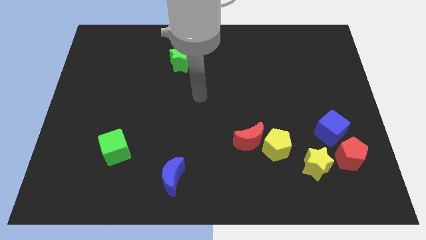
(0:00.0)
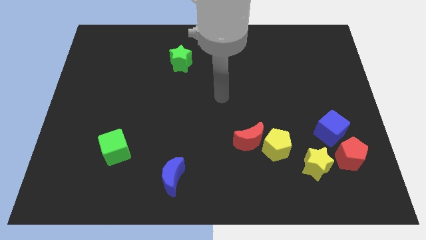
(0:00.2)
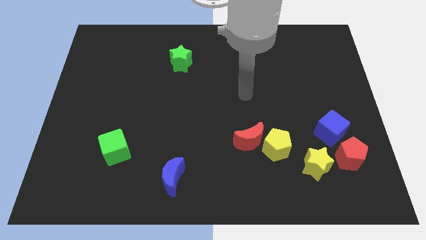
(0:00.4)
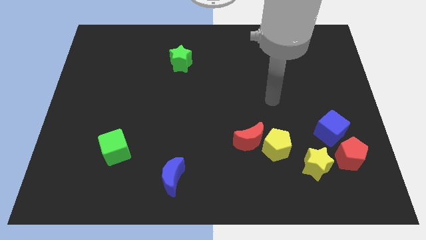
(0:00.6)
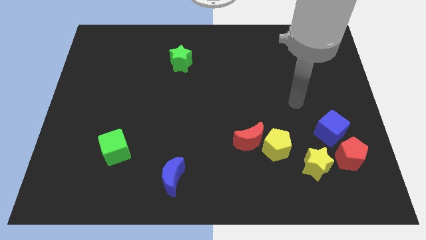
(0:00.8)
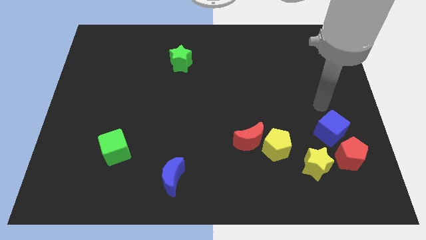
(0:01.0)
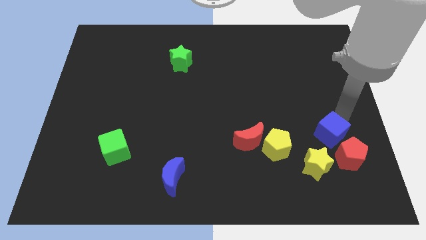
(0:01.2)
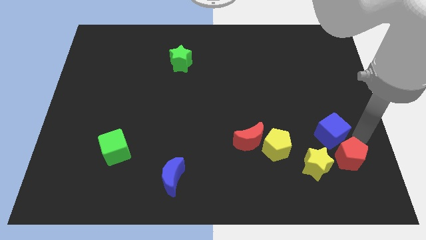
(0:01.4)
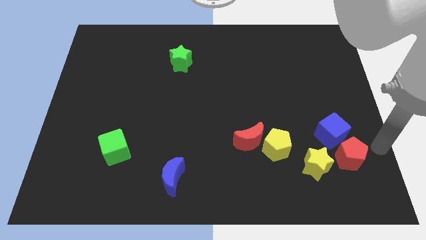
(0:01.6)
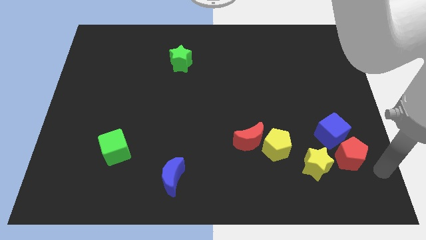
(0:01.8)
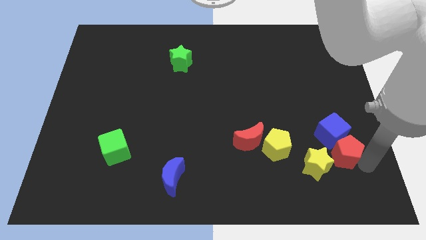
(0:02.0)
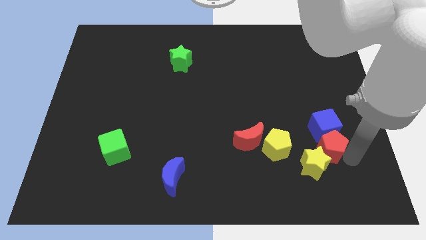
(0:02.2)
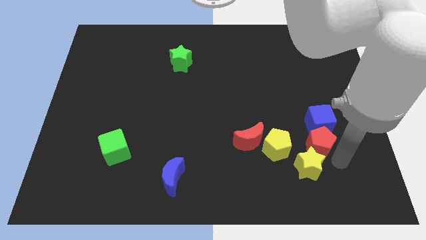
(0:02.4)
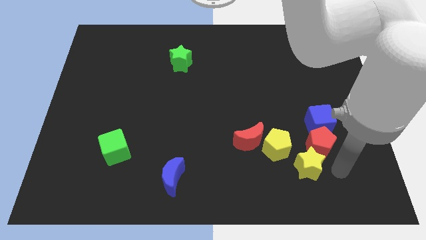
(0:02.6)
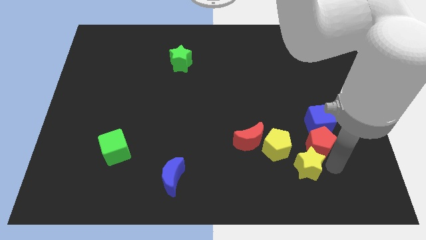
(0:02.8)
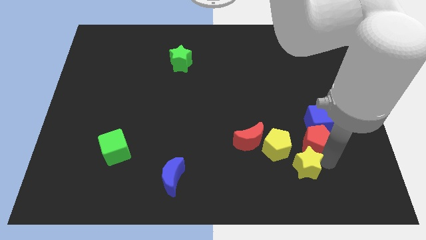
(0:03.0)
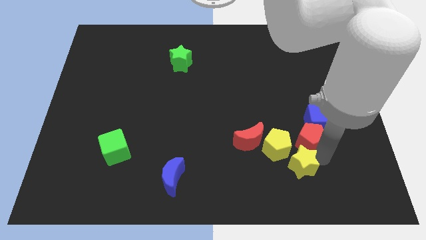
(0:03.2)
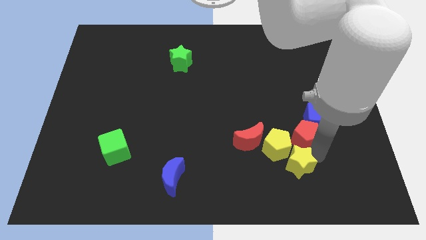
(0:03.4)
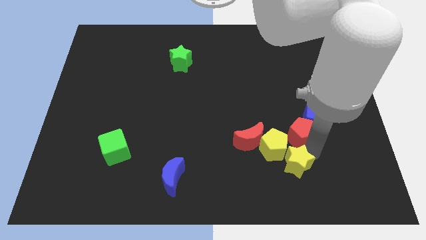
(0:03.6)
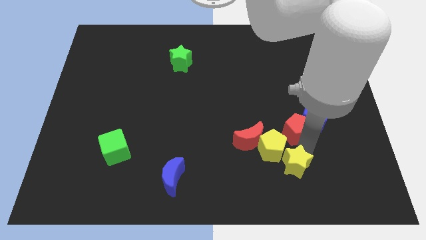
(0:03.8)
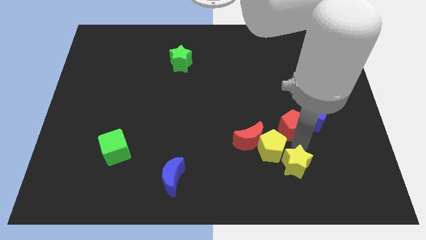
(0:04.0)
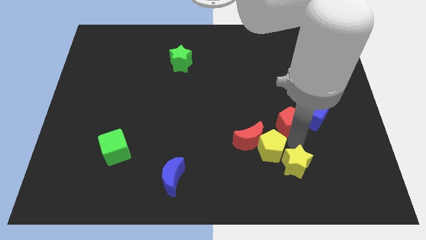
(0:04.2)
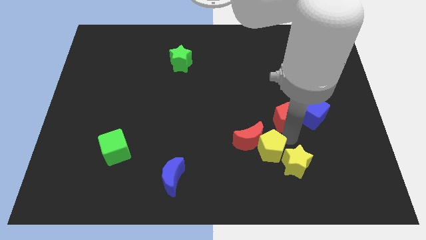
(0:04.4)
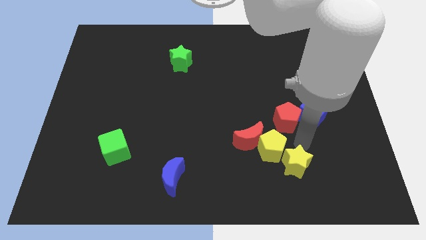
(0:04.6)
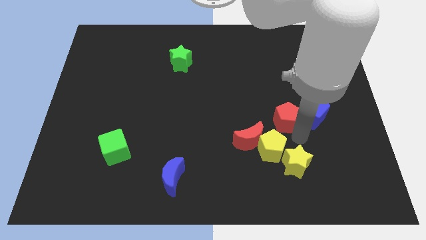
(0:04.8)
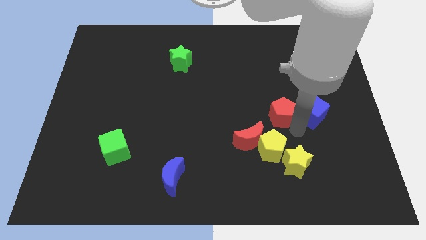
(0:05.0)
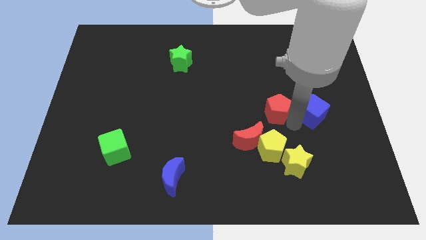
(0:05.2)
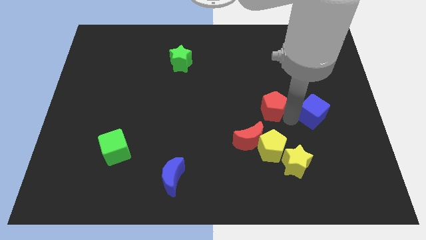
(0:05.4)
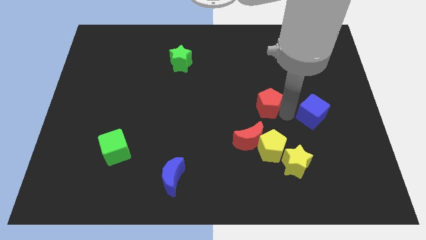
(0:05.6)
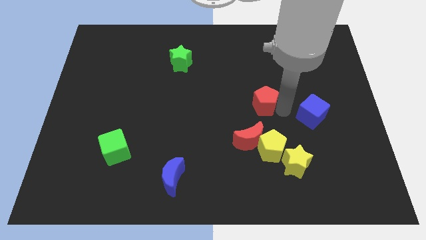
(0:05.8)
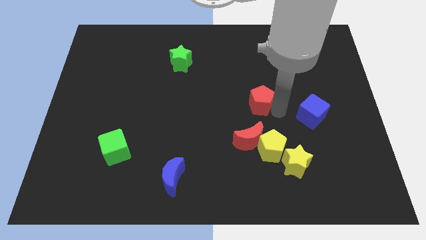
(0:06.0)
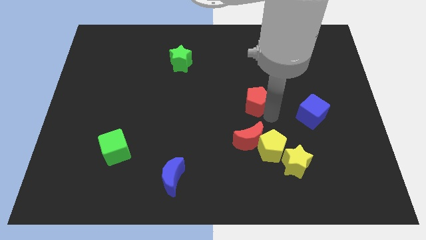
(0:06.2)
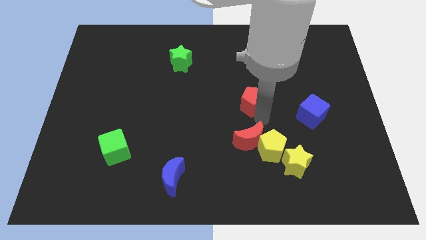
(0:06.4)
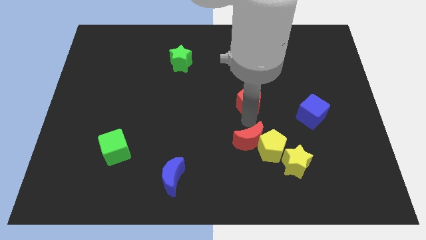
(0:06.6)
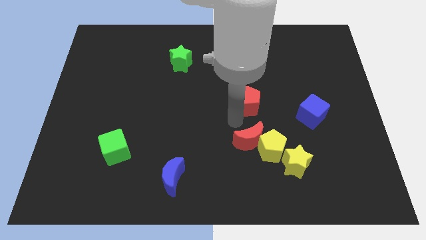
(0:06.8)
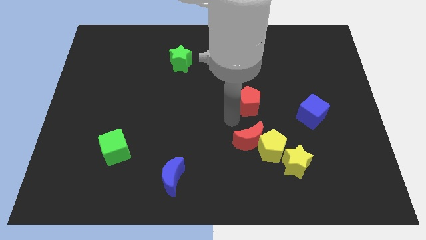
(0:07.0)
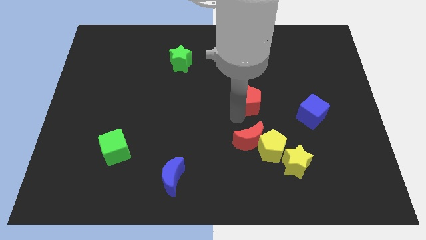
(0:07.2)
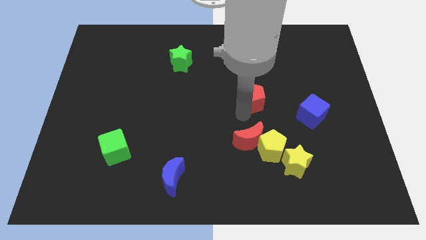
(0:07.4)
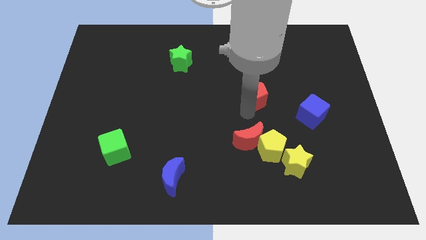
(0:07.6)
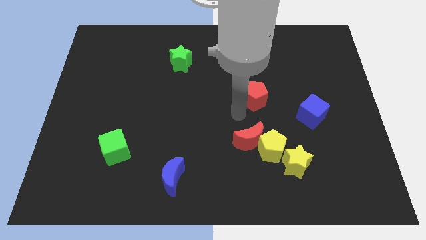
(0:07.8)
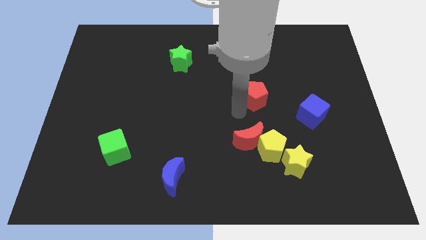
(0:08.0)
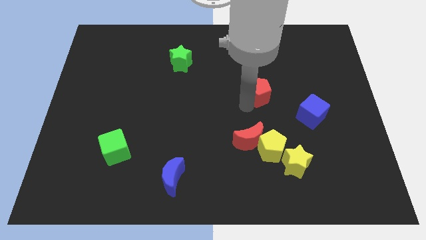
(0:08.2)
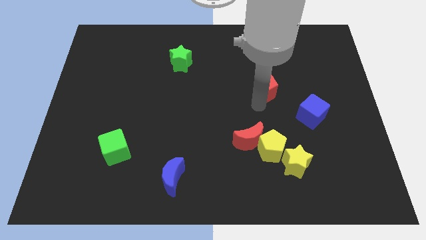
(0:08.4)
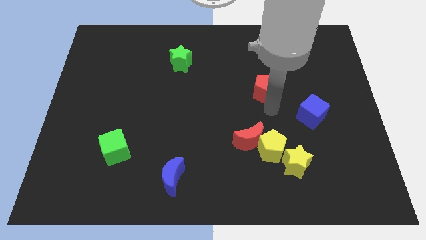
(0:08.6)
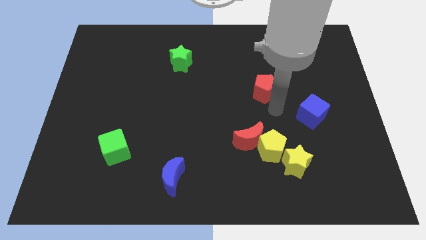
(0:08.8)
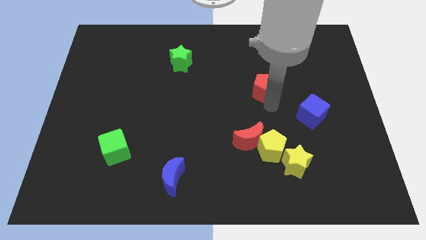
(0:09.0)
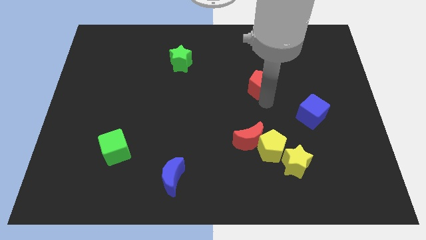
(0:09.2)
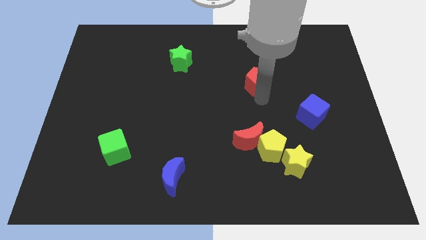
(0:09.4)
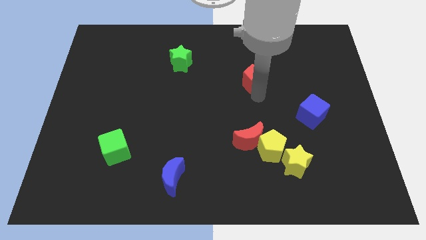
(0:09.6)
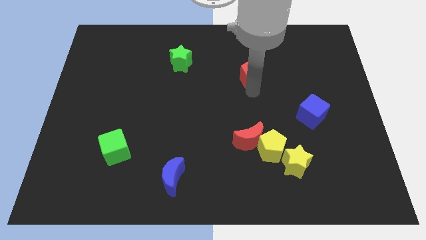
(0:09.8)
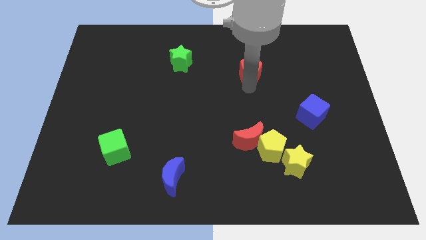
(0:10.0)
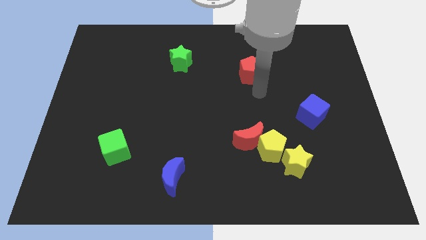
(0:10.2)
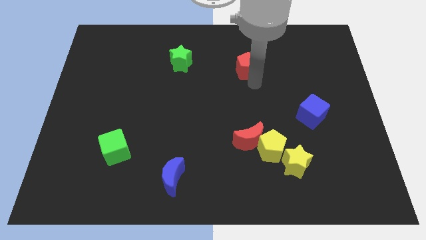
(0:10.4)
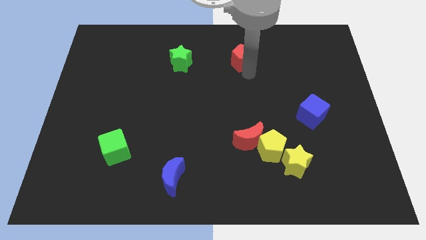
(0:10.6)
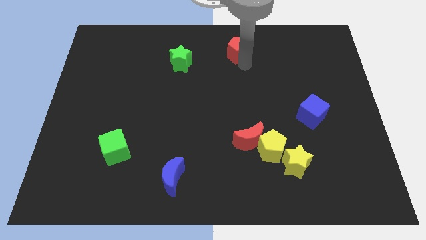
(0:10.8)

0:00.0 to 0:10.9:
push the red pentagon to the top side

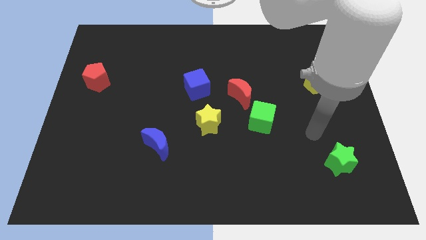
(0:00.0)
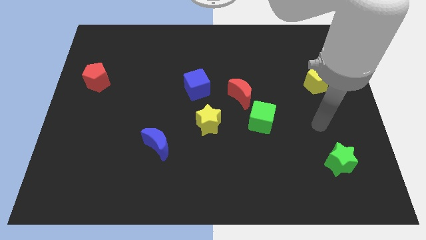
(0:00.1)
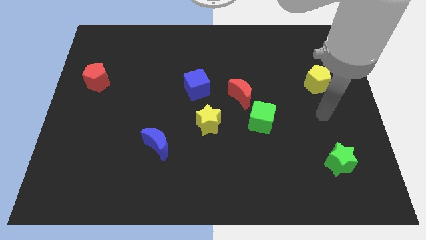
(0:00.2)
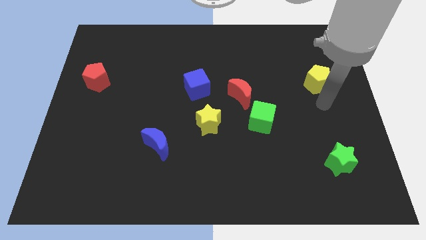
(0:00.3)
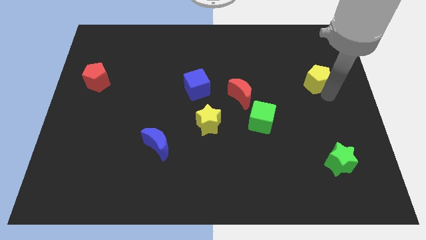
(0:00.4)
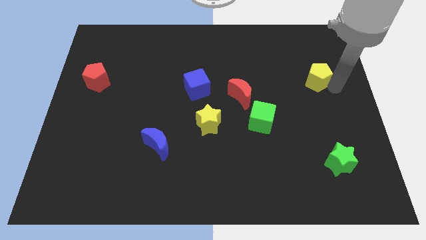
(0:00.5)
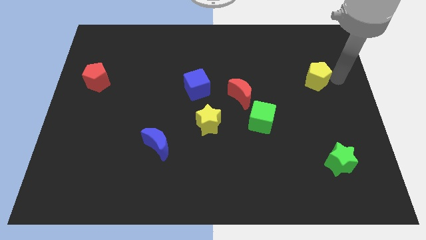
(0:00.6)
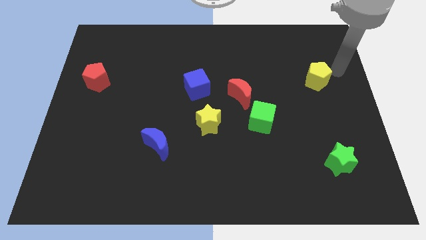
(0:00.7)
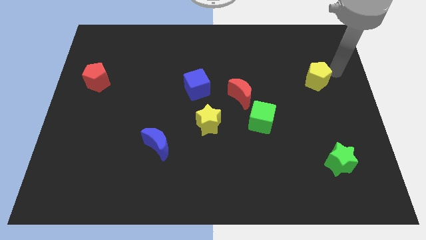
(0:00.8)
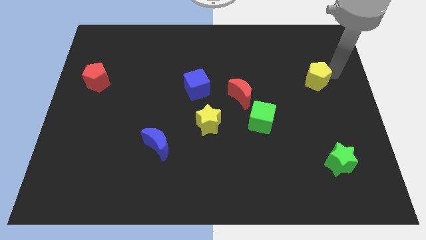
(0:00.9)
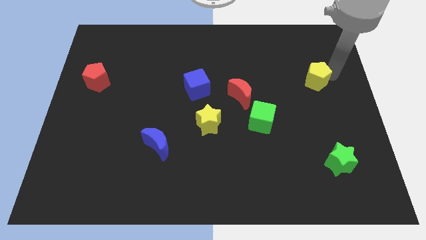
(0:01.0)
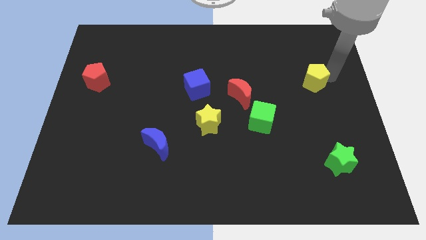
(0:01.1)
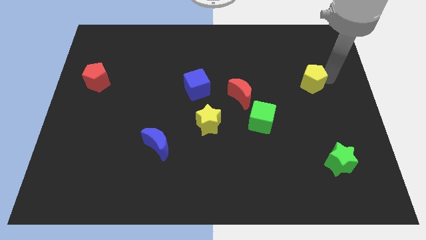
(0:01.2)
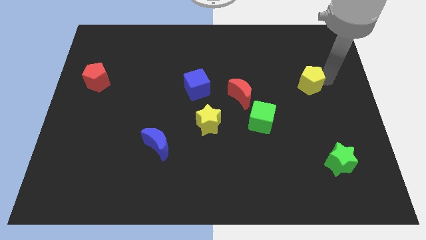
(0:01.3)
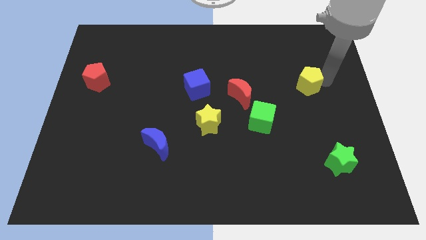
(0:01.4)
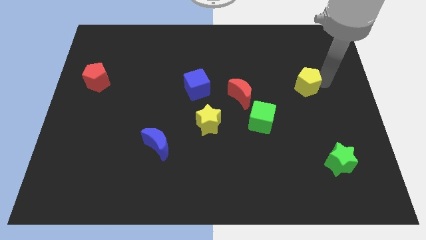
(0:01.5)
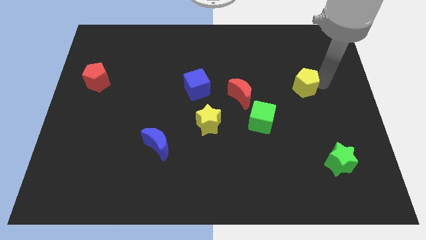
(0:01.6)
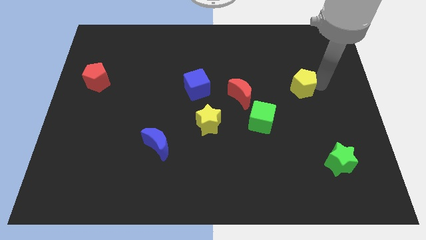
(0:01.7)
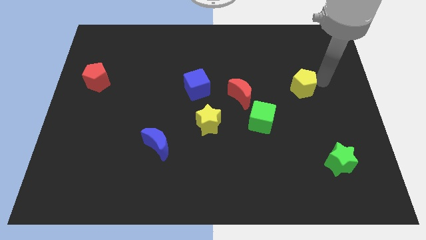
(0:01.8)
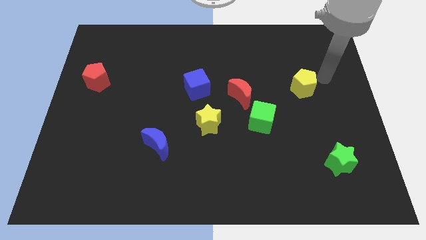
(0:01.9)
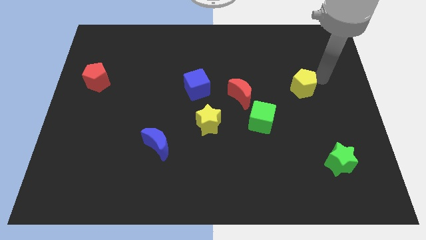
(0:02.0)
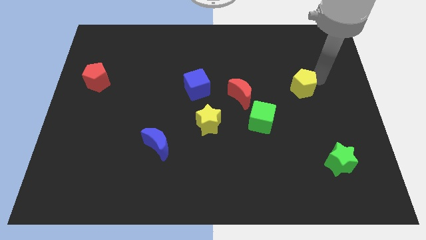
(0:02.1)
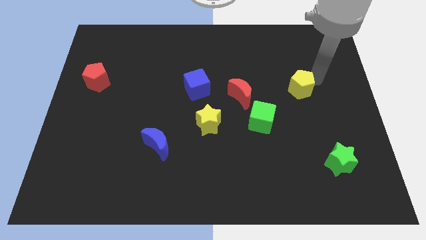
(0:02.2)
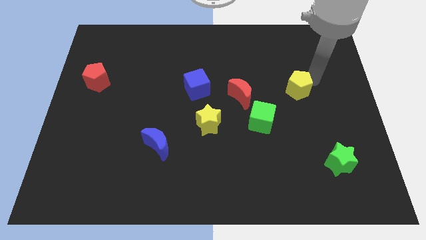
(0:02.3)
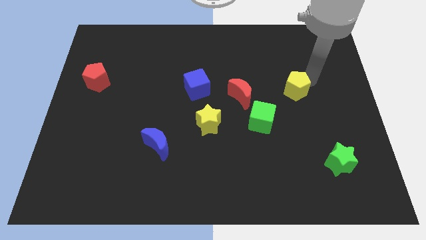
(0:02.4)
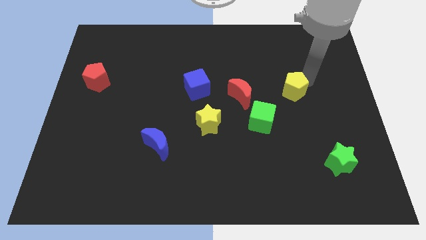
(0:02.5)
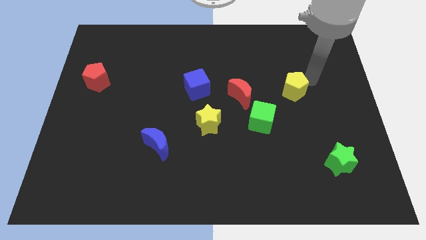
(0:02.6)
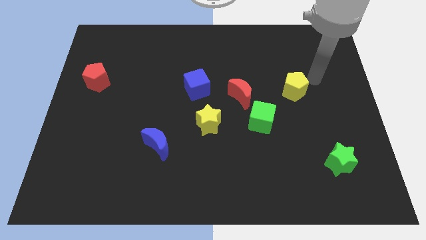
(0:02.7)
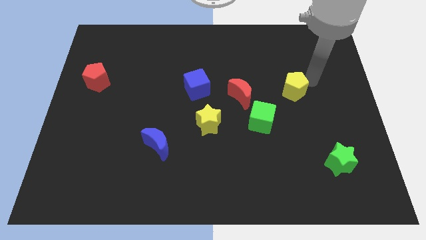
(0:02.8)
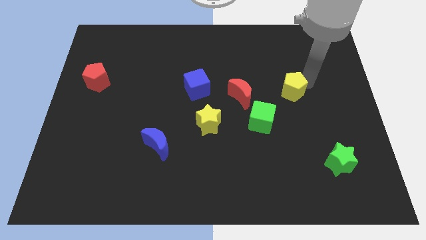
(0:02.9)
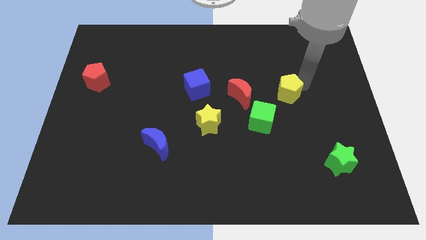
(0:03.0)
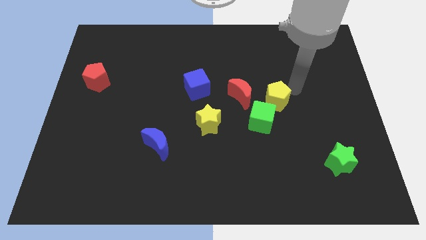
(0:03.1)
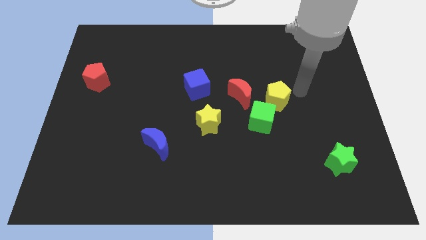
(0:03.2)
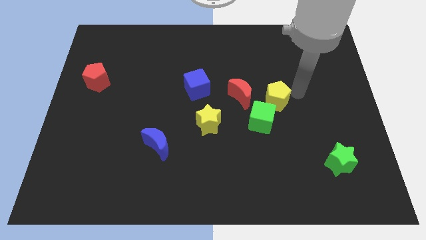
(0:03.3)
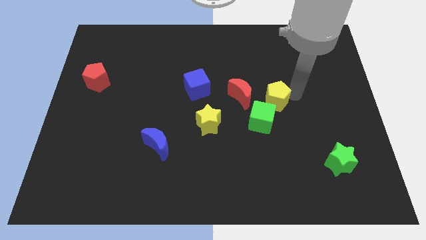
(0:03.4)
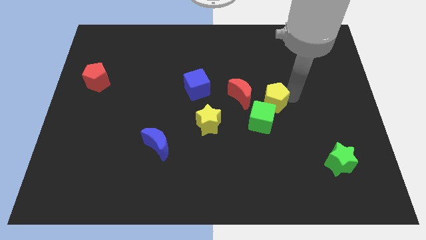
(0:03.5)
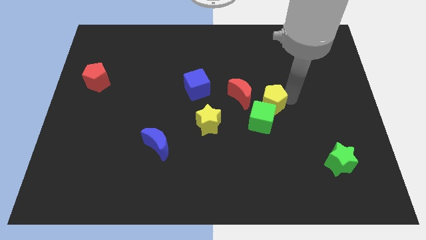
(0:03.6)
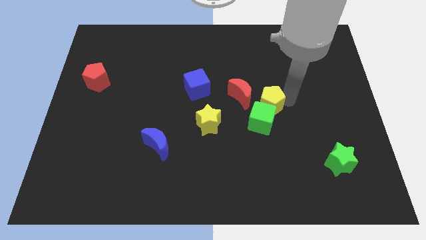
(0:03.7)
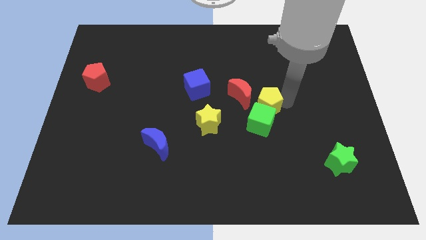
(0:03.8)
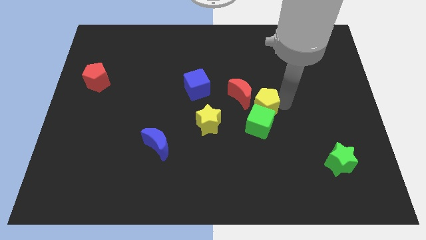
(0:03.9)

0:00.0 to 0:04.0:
push the yellow pentagon to the center
